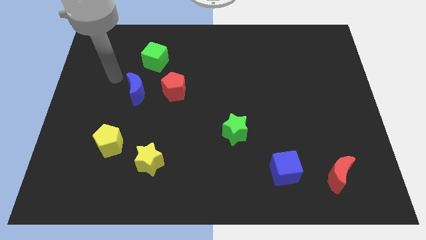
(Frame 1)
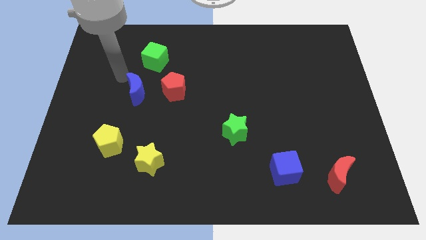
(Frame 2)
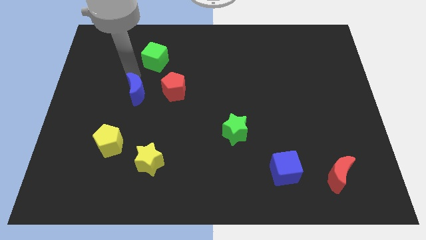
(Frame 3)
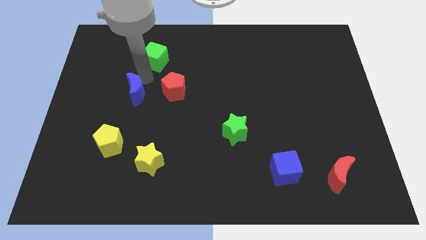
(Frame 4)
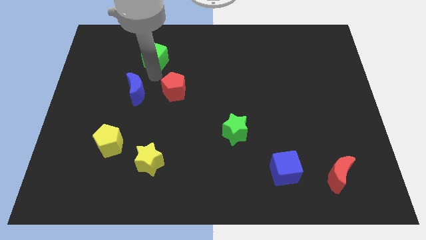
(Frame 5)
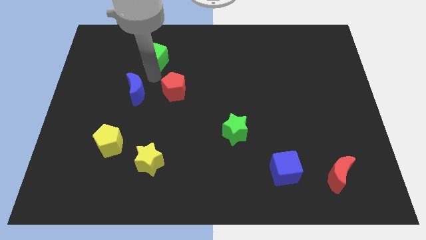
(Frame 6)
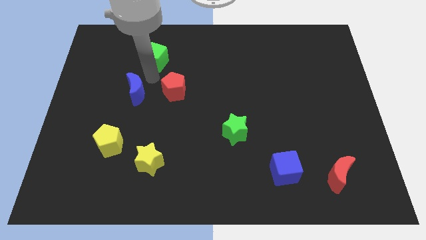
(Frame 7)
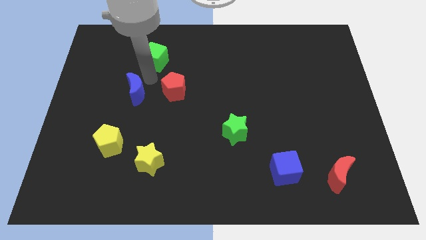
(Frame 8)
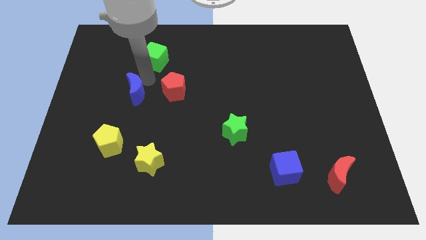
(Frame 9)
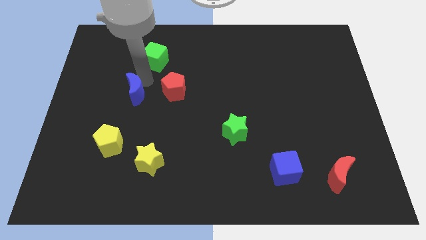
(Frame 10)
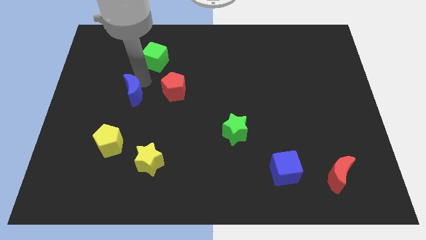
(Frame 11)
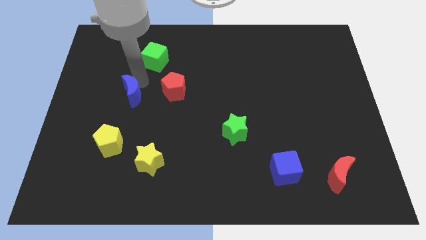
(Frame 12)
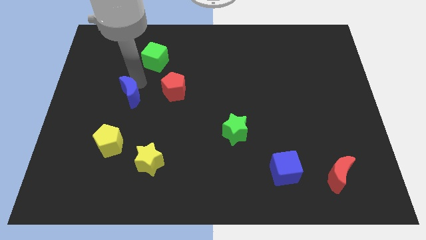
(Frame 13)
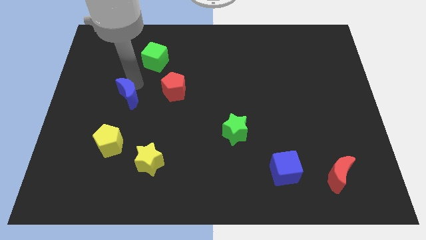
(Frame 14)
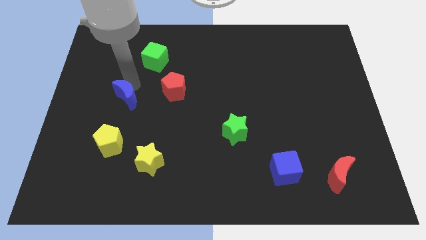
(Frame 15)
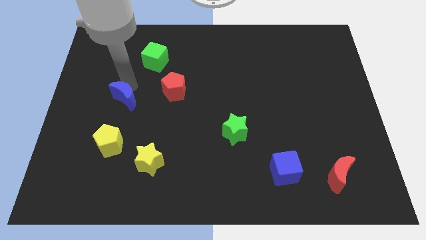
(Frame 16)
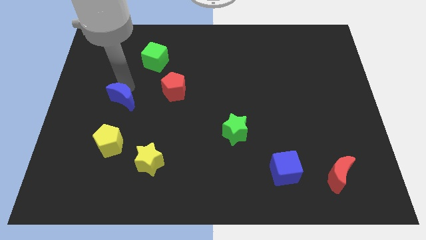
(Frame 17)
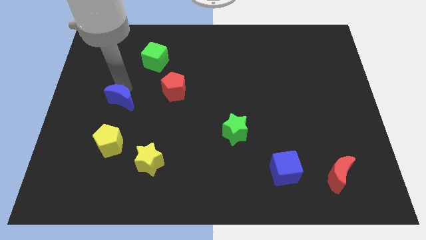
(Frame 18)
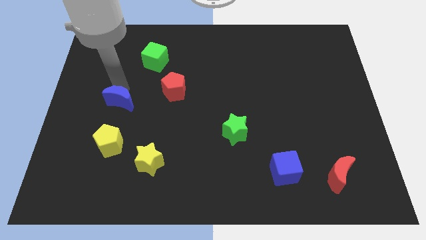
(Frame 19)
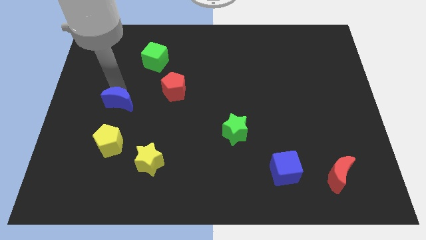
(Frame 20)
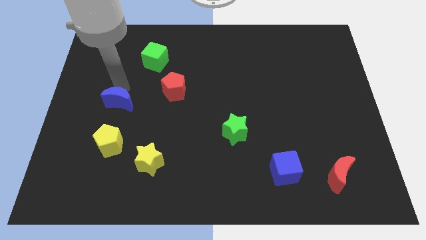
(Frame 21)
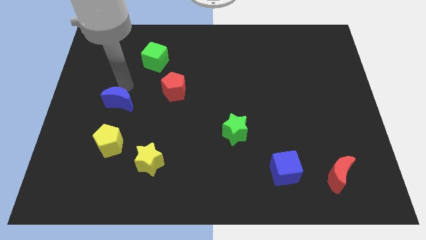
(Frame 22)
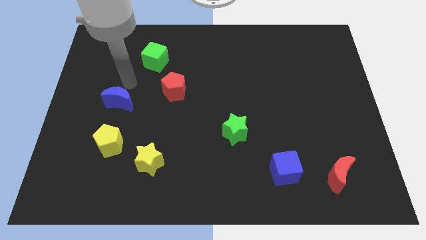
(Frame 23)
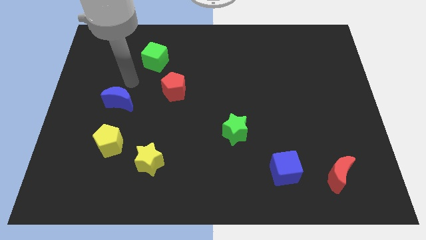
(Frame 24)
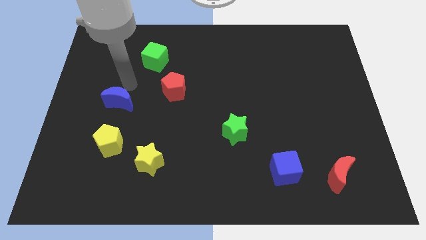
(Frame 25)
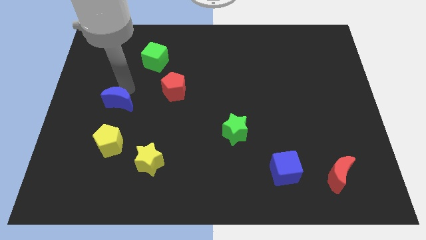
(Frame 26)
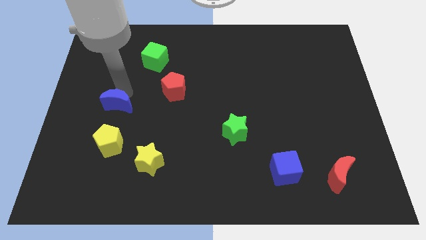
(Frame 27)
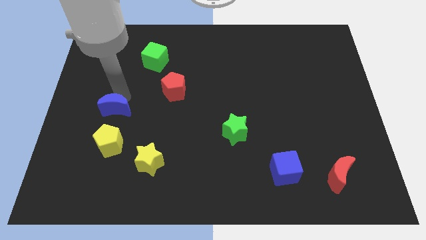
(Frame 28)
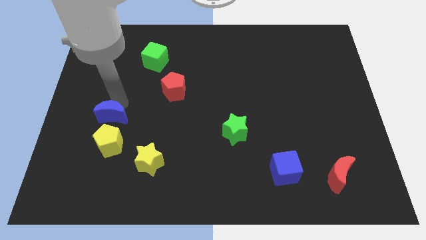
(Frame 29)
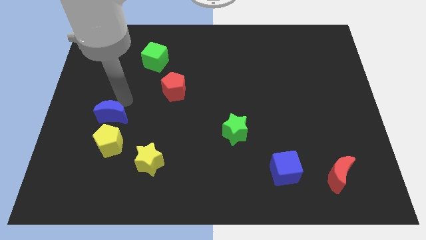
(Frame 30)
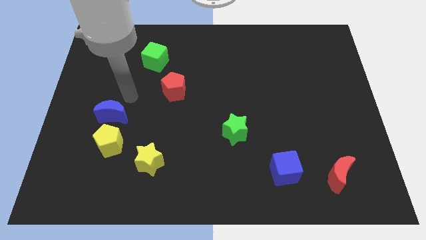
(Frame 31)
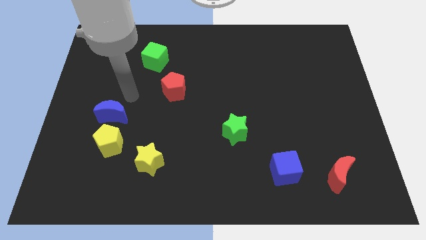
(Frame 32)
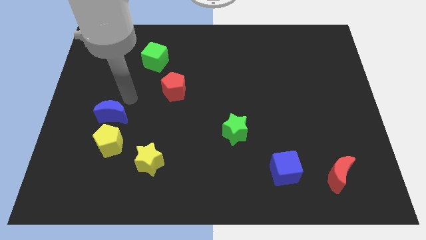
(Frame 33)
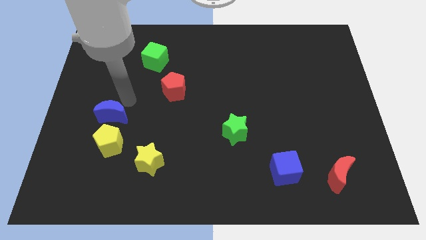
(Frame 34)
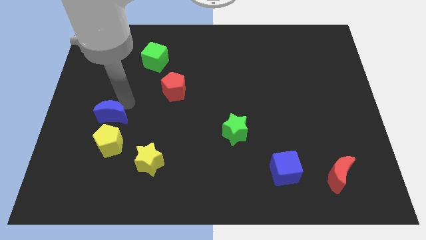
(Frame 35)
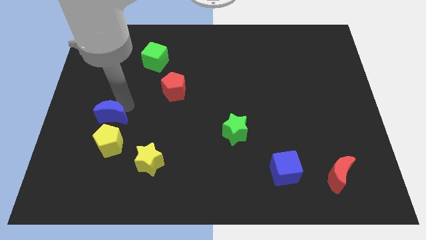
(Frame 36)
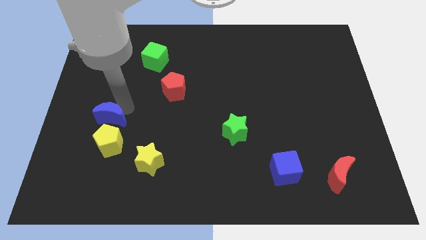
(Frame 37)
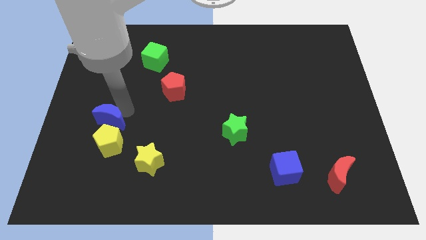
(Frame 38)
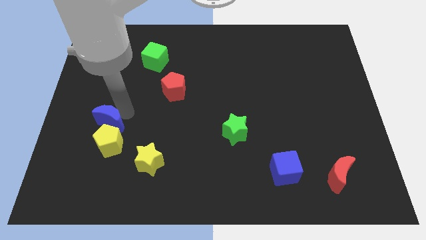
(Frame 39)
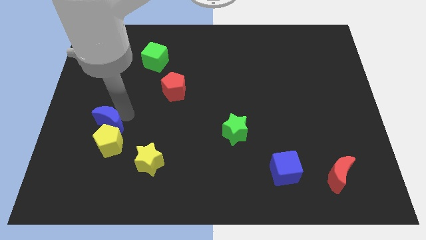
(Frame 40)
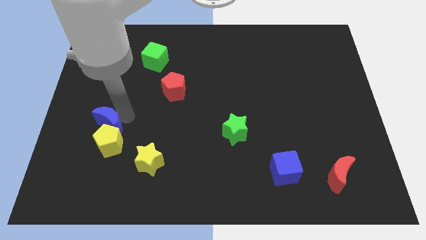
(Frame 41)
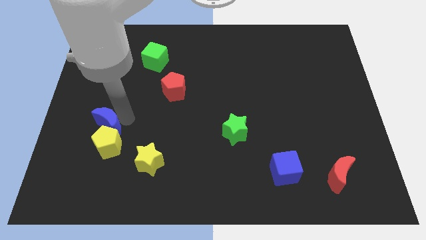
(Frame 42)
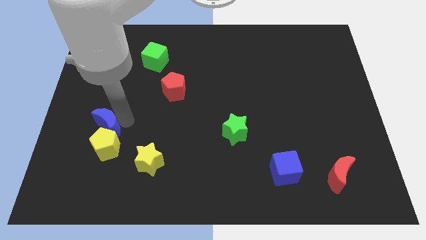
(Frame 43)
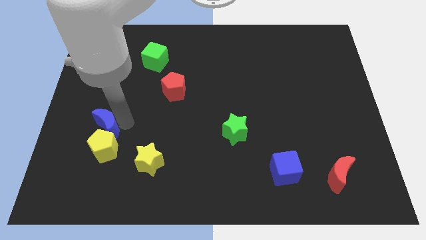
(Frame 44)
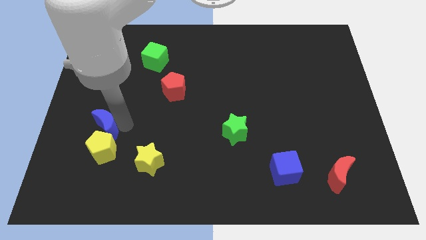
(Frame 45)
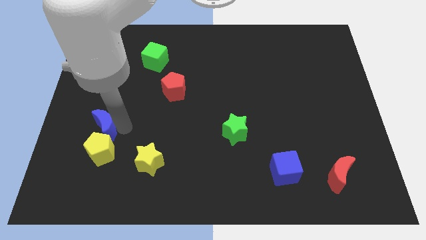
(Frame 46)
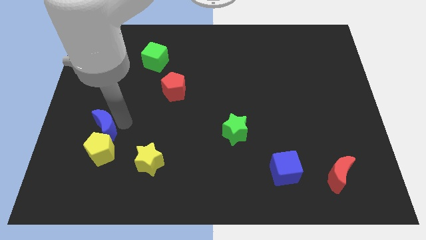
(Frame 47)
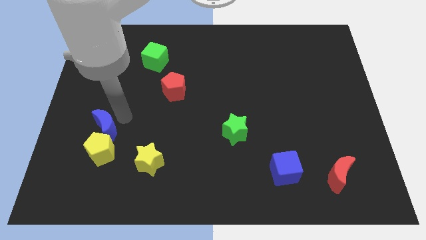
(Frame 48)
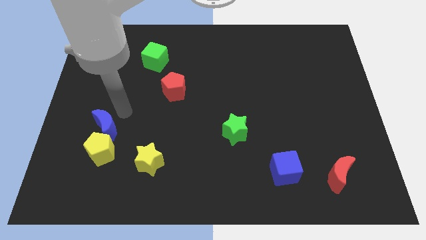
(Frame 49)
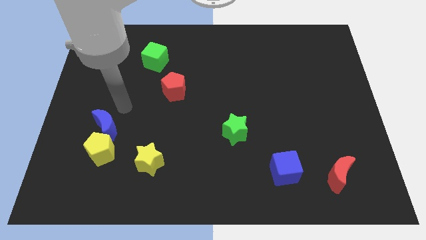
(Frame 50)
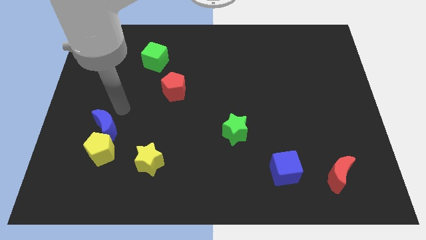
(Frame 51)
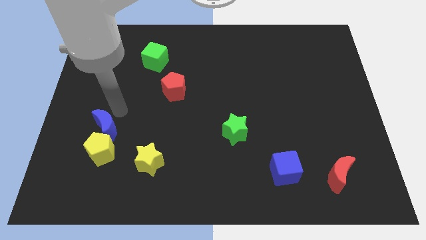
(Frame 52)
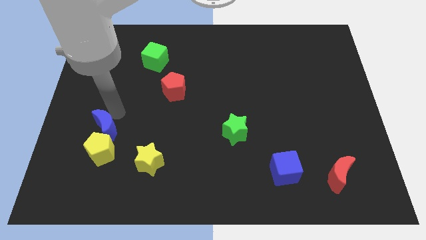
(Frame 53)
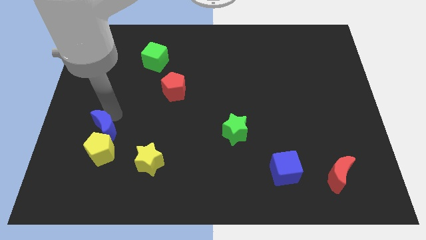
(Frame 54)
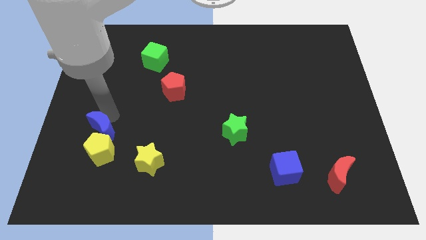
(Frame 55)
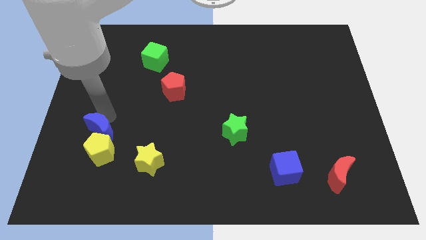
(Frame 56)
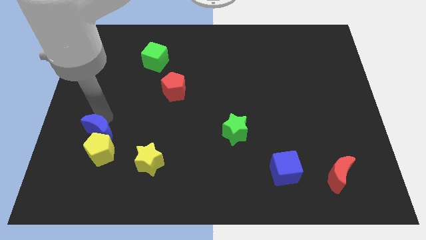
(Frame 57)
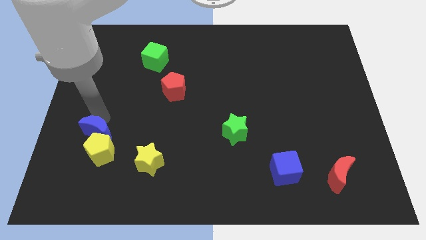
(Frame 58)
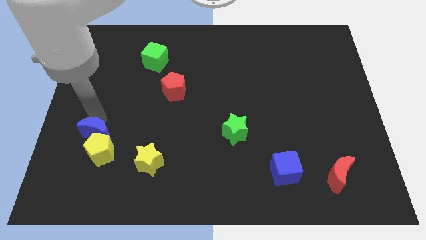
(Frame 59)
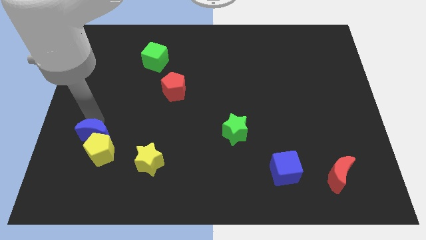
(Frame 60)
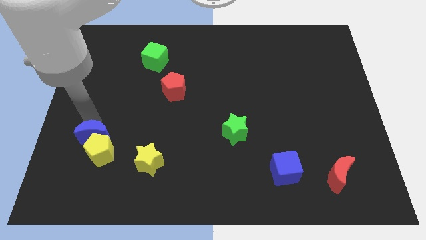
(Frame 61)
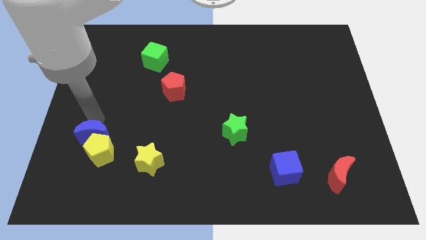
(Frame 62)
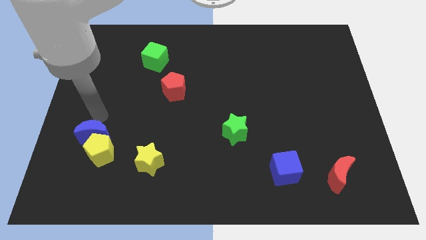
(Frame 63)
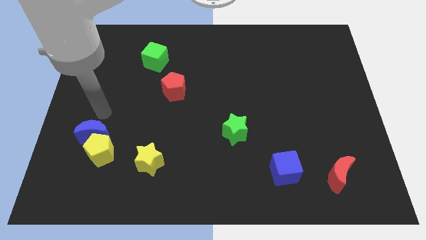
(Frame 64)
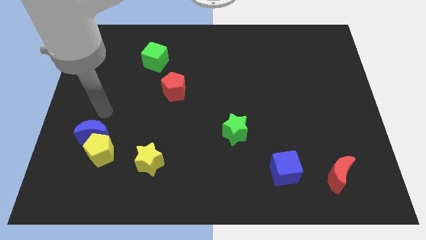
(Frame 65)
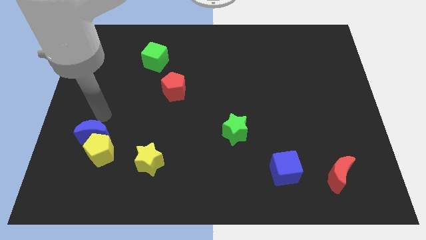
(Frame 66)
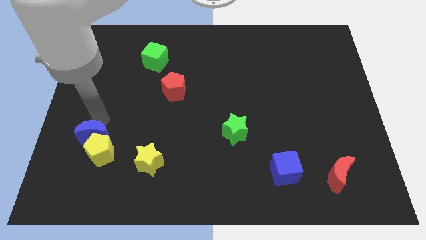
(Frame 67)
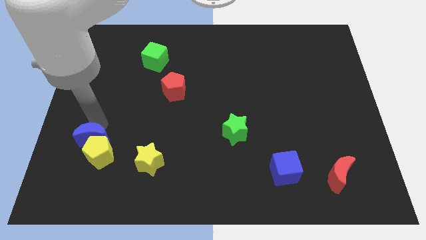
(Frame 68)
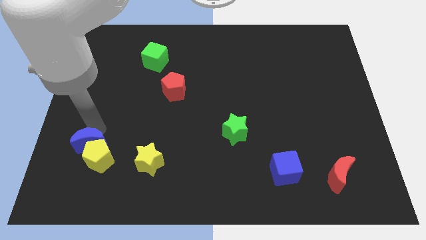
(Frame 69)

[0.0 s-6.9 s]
put the blue moon to the left side of the yellow star
